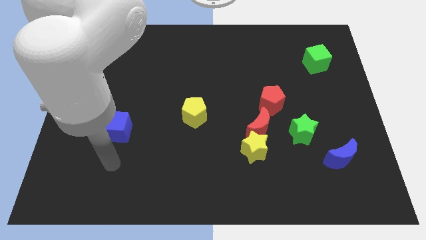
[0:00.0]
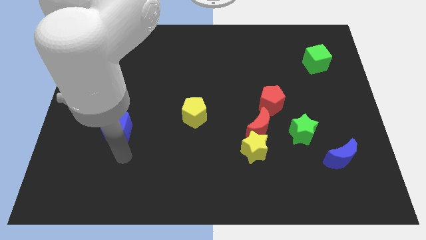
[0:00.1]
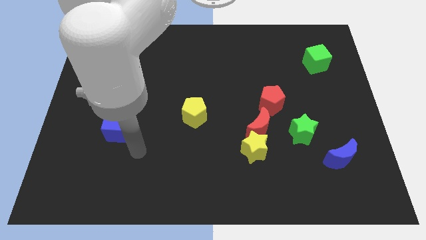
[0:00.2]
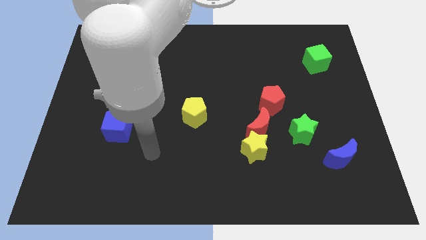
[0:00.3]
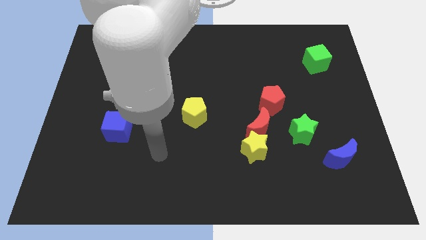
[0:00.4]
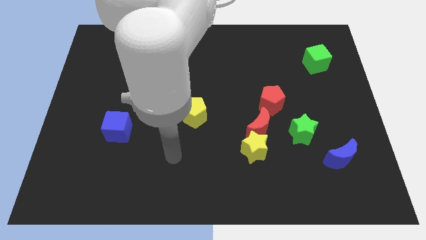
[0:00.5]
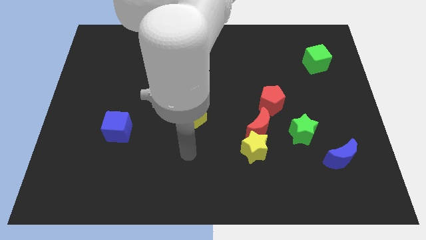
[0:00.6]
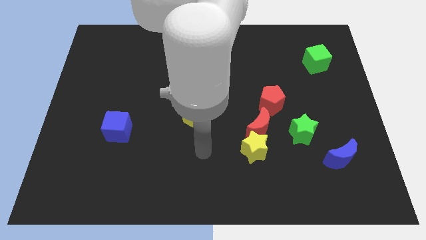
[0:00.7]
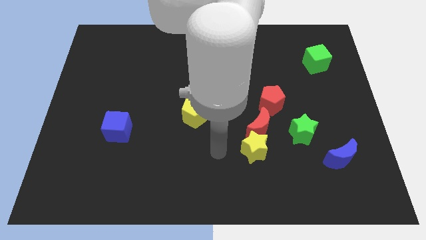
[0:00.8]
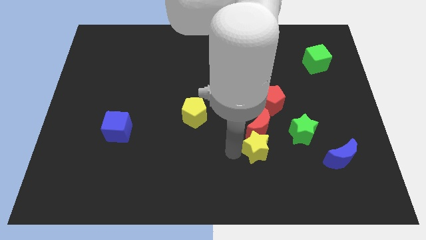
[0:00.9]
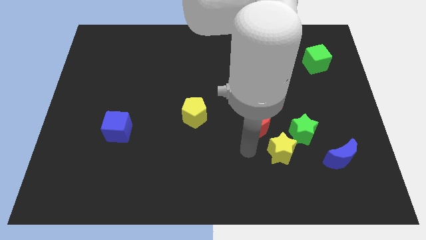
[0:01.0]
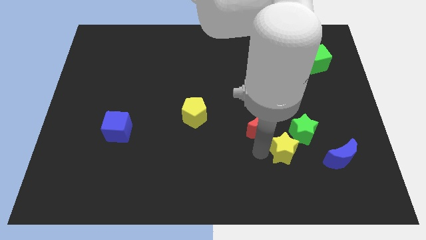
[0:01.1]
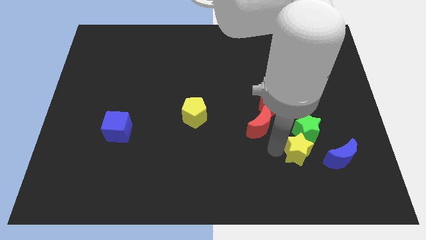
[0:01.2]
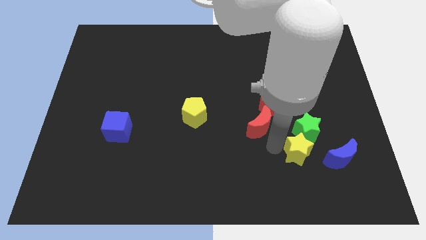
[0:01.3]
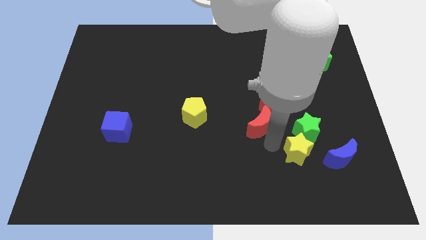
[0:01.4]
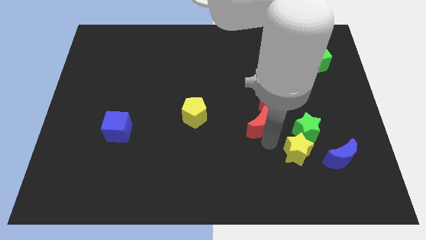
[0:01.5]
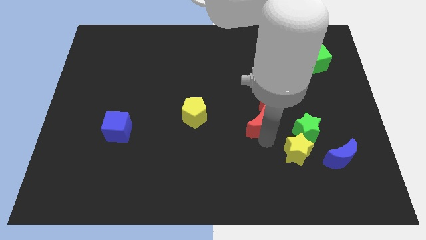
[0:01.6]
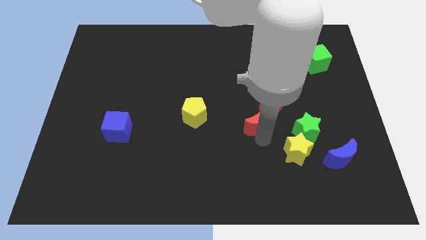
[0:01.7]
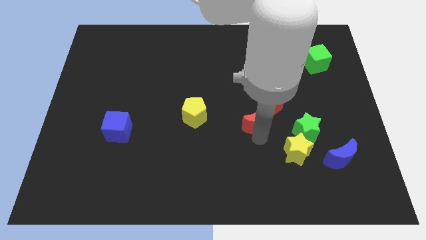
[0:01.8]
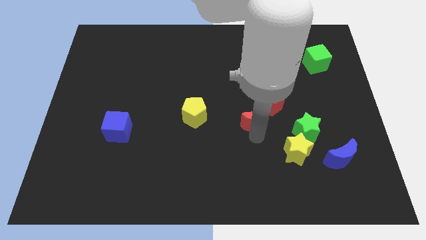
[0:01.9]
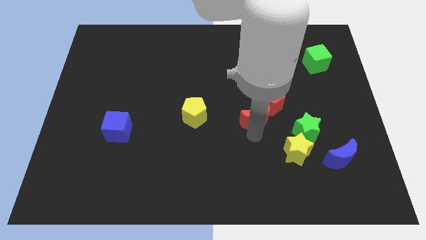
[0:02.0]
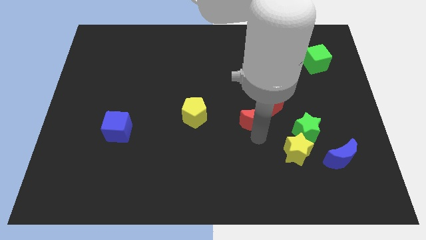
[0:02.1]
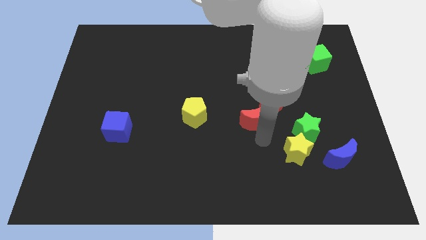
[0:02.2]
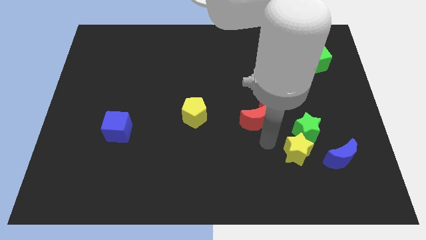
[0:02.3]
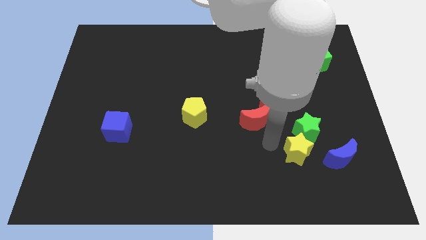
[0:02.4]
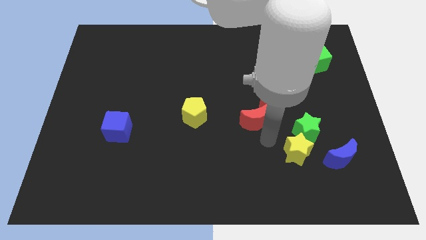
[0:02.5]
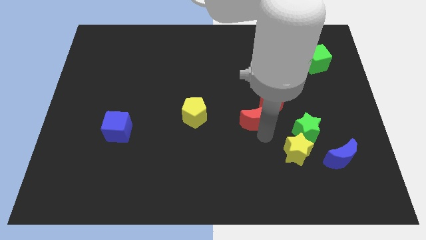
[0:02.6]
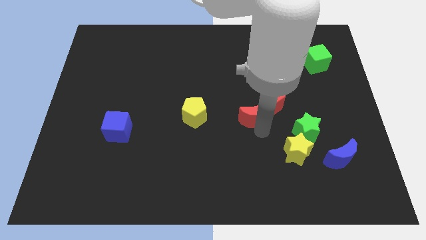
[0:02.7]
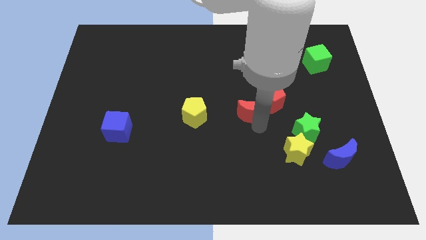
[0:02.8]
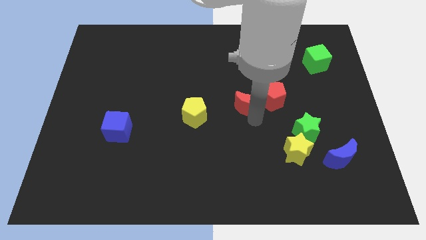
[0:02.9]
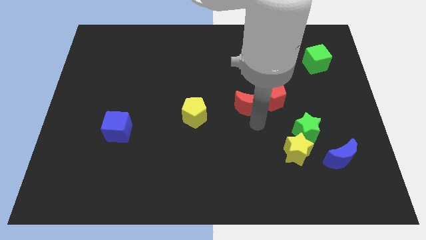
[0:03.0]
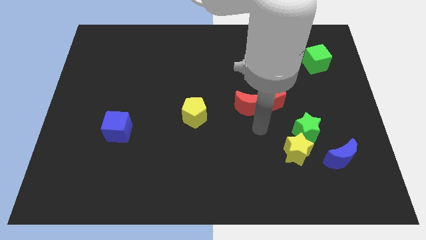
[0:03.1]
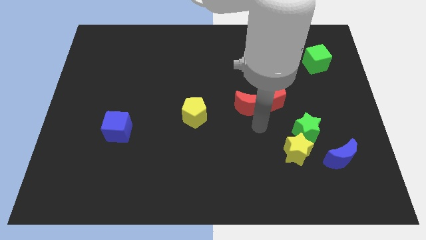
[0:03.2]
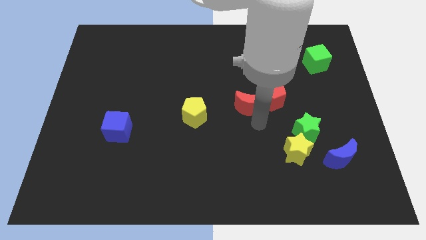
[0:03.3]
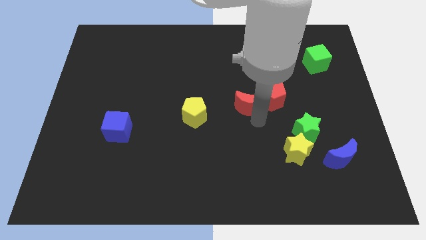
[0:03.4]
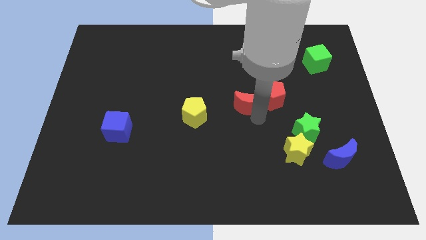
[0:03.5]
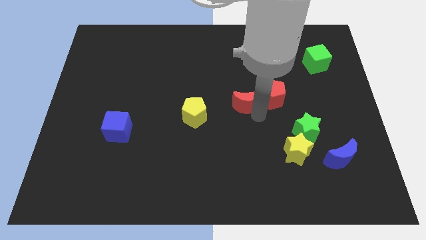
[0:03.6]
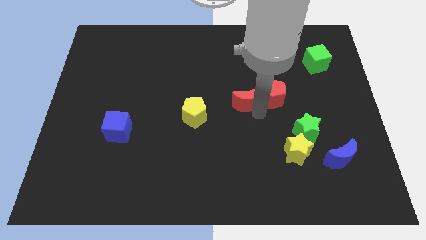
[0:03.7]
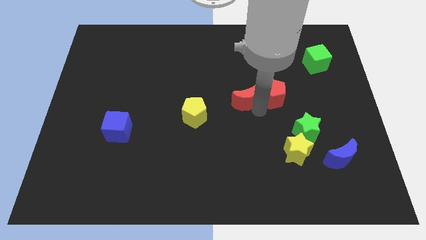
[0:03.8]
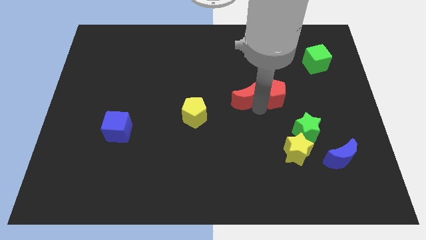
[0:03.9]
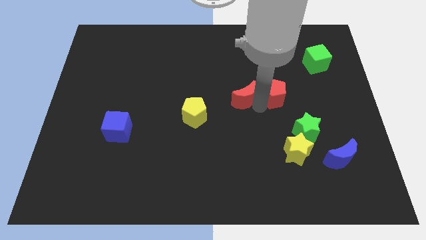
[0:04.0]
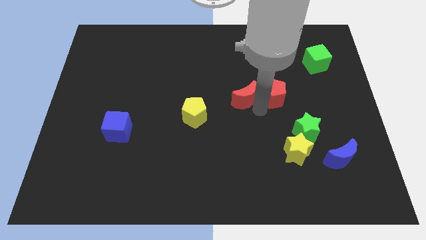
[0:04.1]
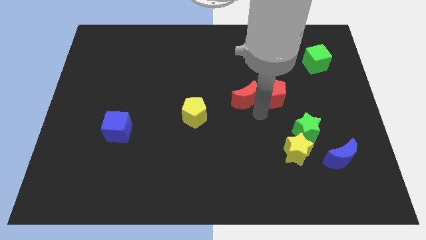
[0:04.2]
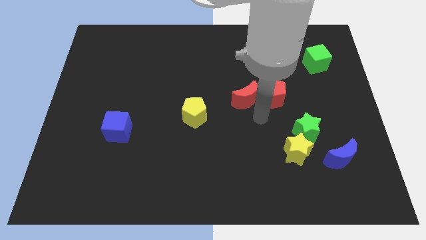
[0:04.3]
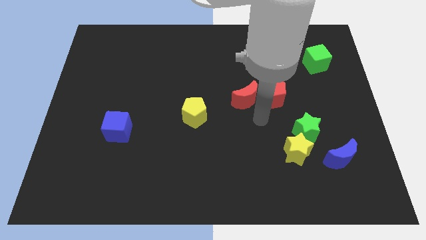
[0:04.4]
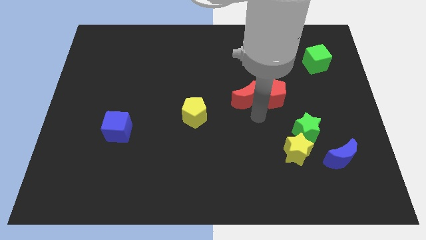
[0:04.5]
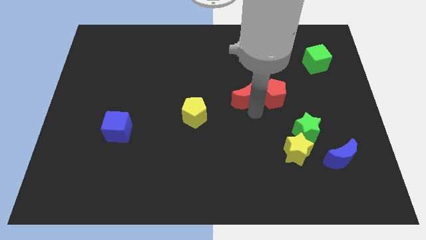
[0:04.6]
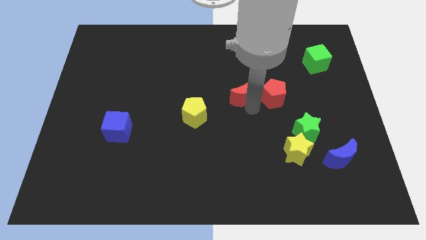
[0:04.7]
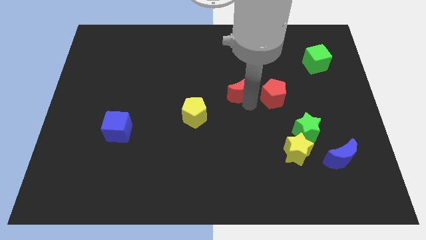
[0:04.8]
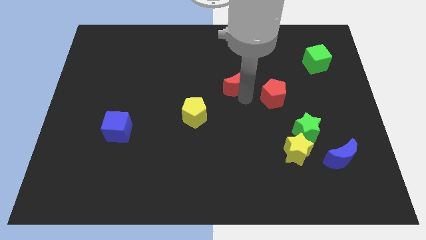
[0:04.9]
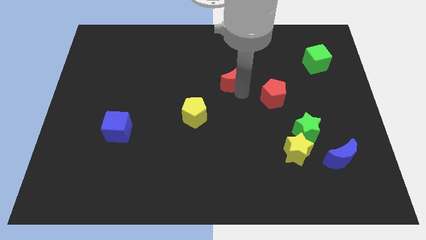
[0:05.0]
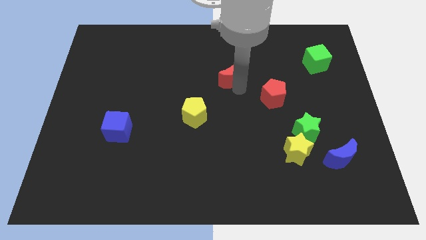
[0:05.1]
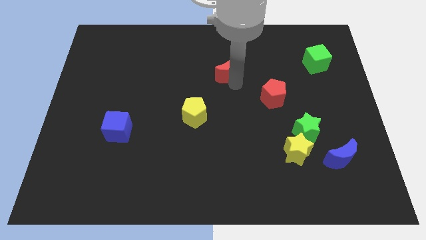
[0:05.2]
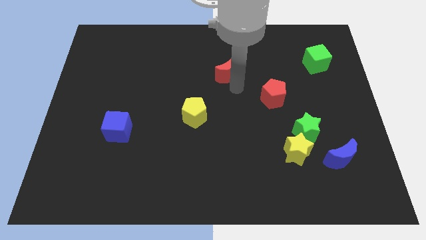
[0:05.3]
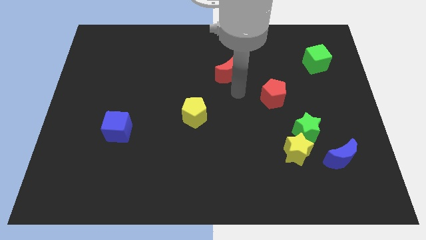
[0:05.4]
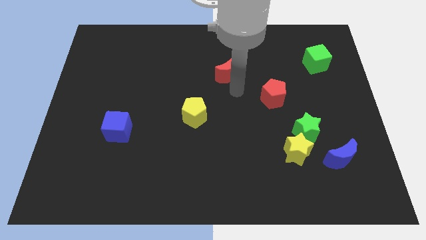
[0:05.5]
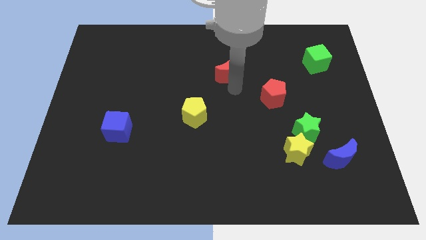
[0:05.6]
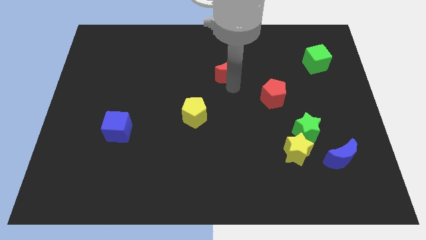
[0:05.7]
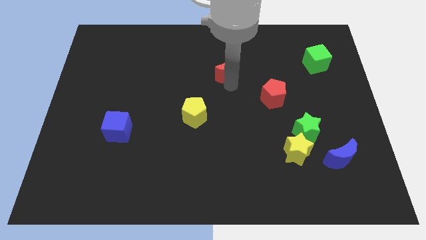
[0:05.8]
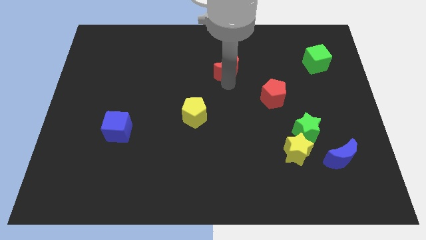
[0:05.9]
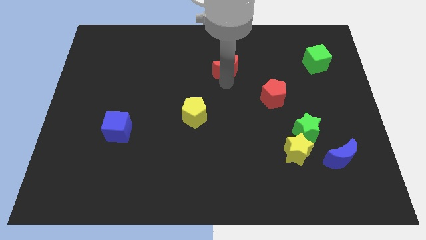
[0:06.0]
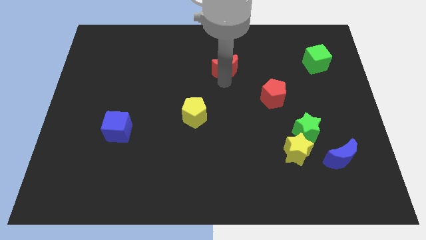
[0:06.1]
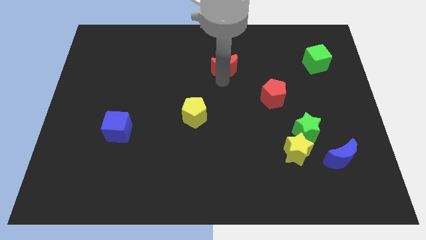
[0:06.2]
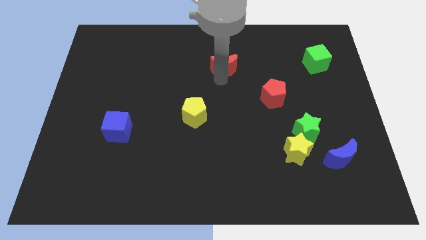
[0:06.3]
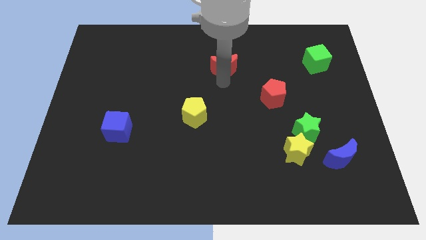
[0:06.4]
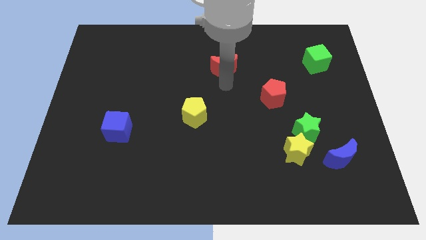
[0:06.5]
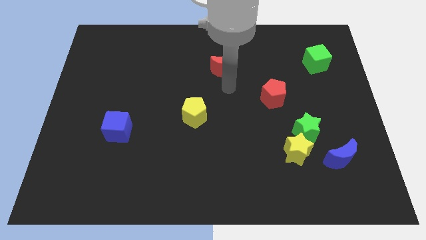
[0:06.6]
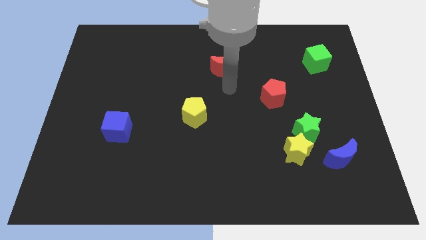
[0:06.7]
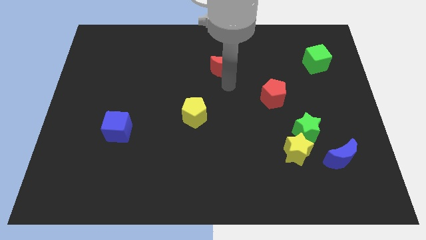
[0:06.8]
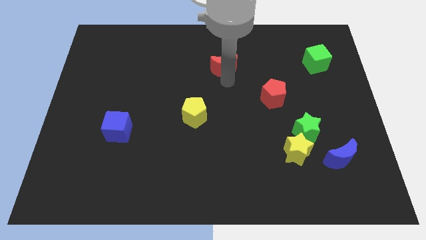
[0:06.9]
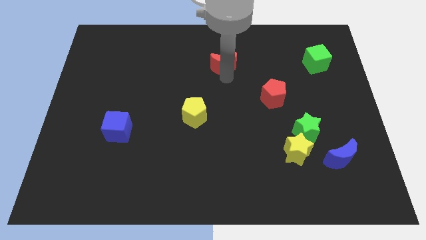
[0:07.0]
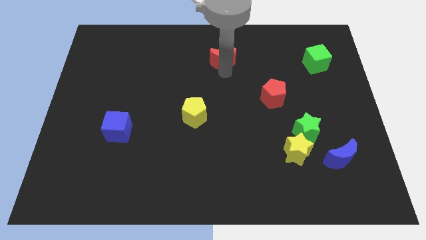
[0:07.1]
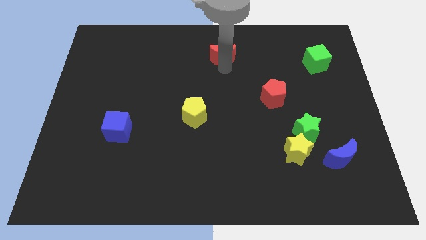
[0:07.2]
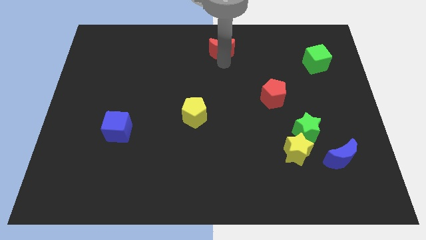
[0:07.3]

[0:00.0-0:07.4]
move the red moon to the top side

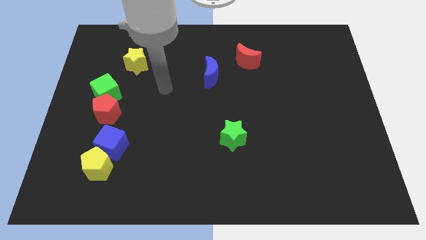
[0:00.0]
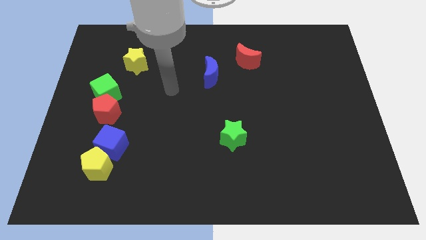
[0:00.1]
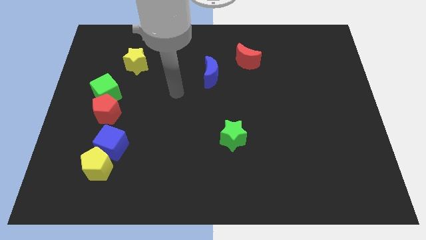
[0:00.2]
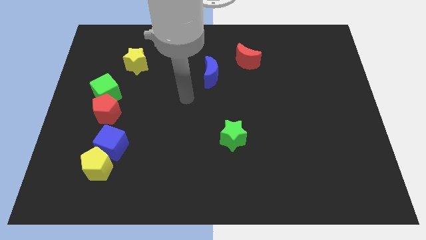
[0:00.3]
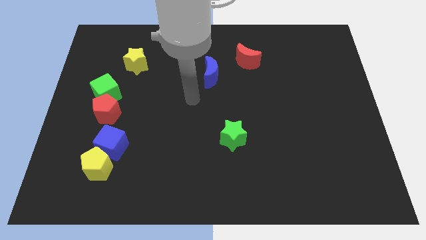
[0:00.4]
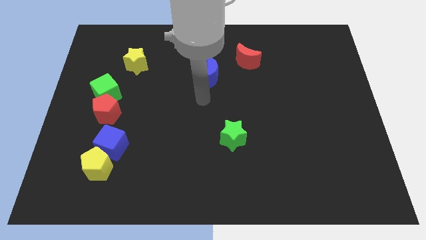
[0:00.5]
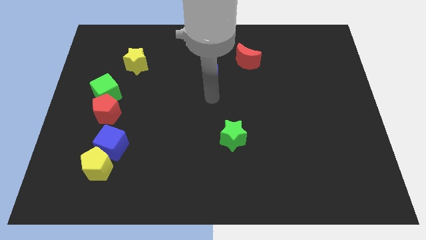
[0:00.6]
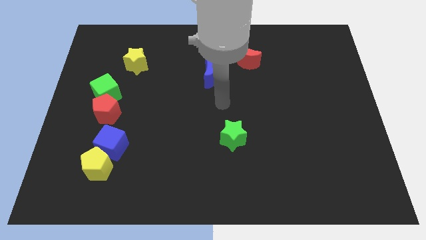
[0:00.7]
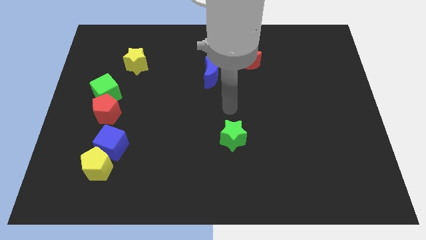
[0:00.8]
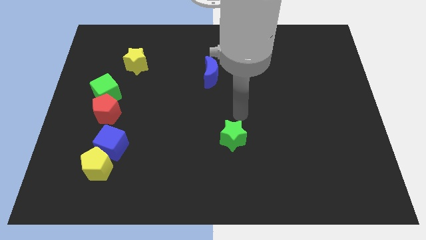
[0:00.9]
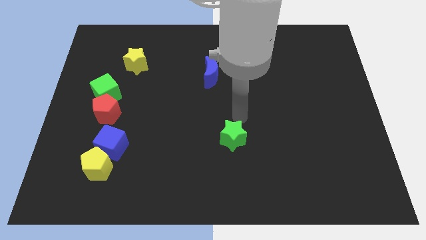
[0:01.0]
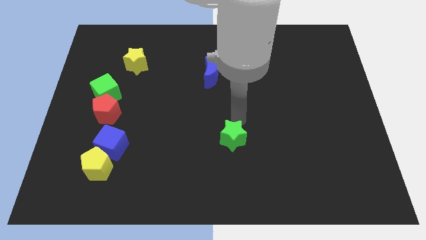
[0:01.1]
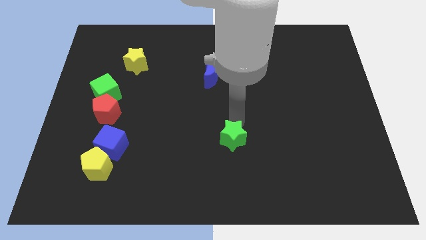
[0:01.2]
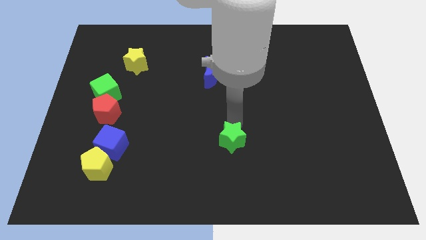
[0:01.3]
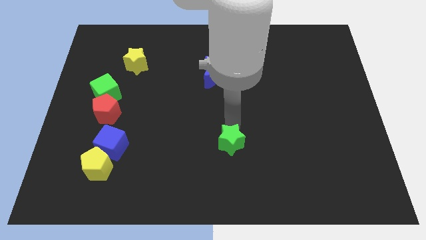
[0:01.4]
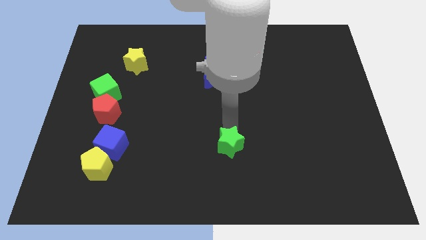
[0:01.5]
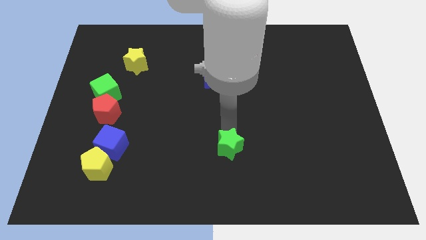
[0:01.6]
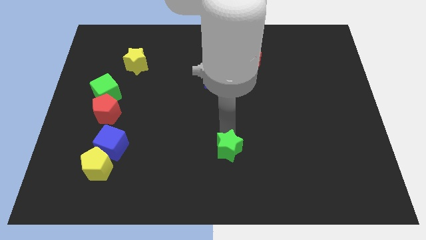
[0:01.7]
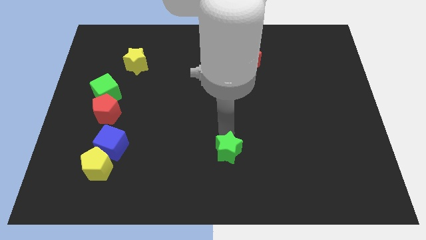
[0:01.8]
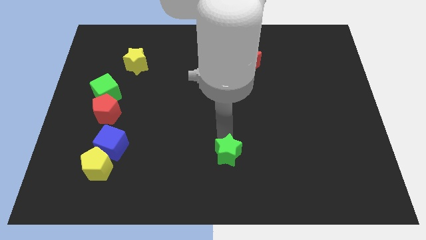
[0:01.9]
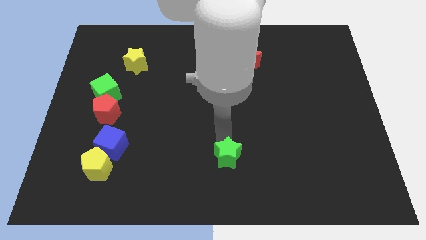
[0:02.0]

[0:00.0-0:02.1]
put the green star to the bottom
